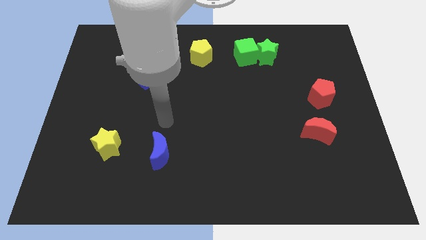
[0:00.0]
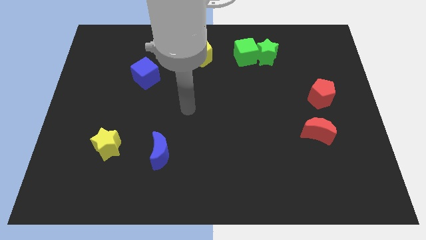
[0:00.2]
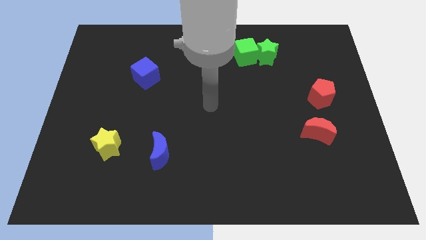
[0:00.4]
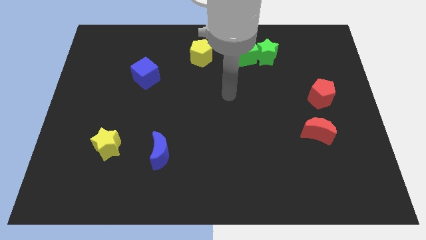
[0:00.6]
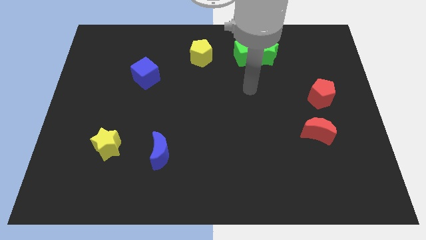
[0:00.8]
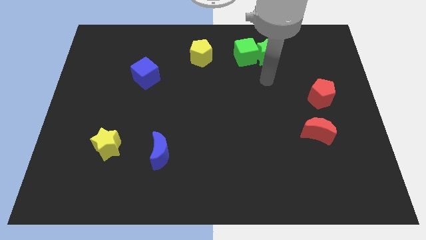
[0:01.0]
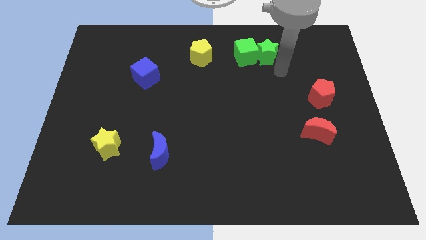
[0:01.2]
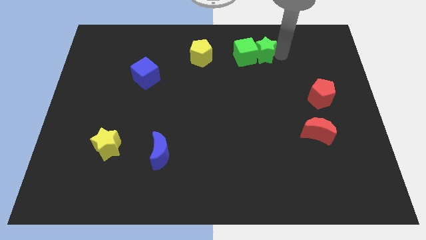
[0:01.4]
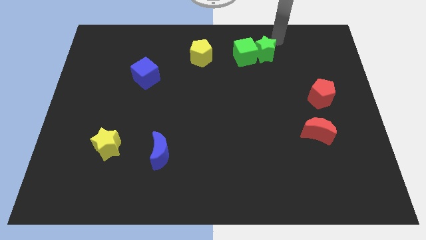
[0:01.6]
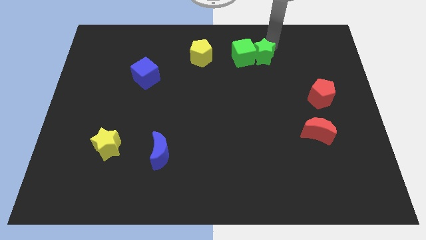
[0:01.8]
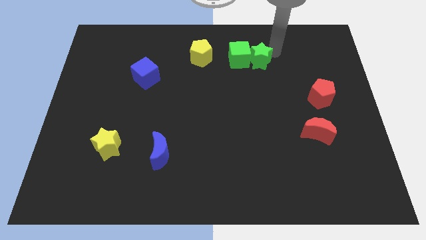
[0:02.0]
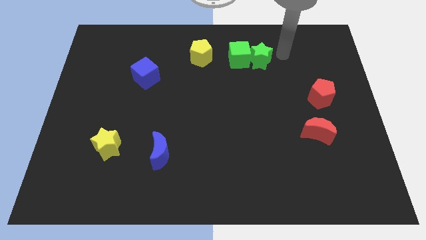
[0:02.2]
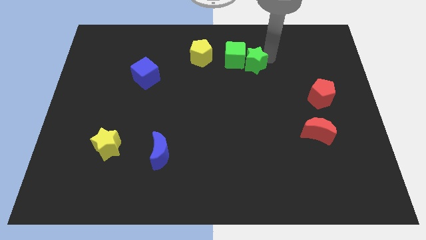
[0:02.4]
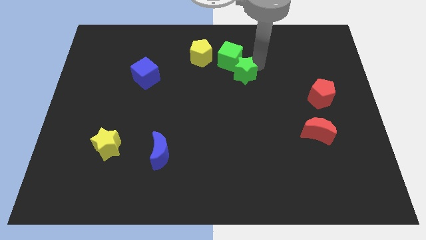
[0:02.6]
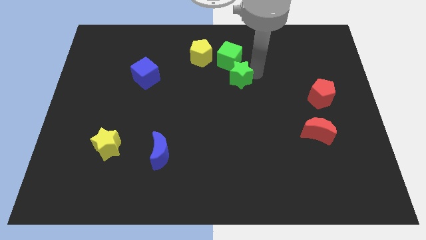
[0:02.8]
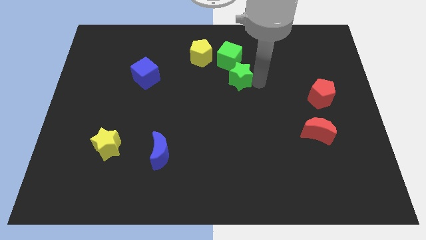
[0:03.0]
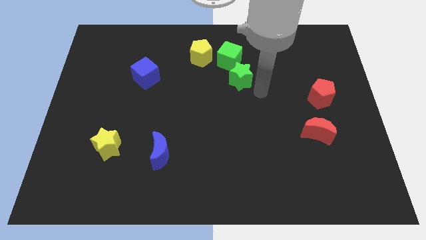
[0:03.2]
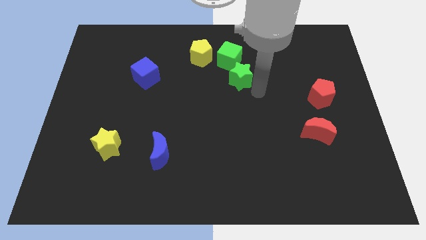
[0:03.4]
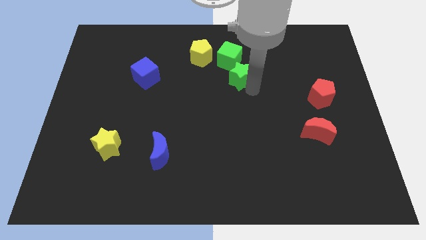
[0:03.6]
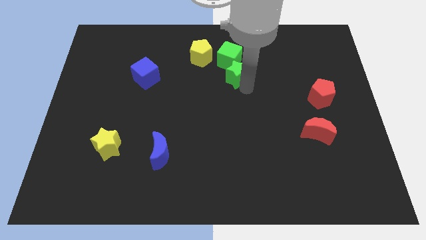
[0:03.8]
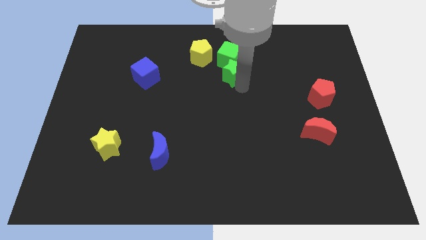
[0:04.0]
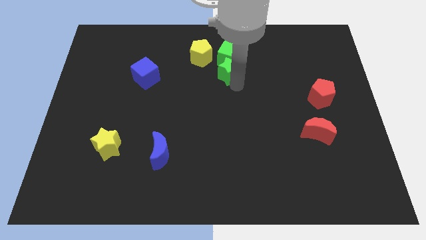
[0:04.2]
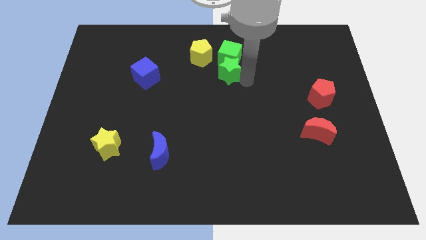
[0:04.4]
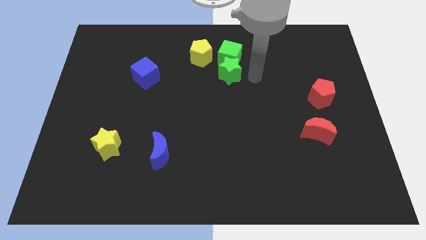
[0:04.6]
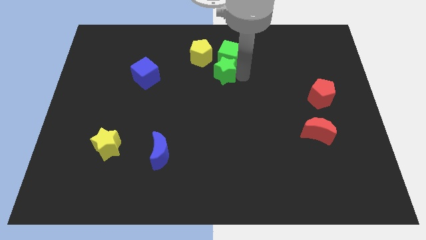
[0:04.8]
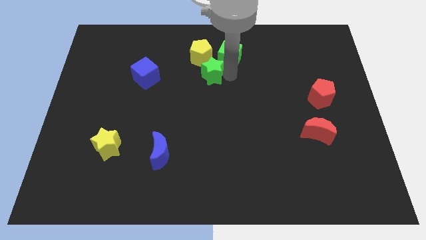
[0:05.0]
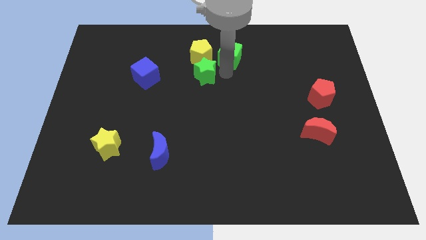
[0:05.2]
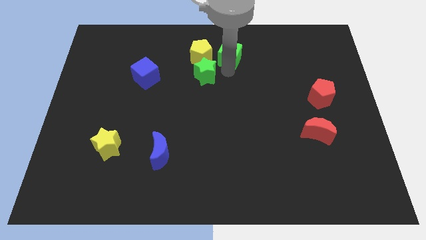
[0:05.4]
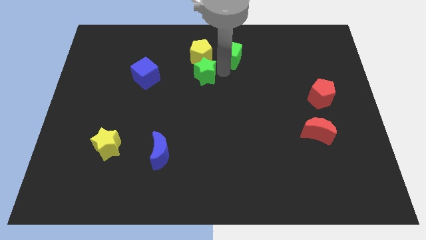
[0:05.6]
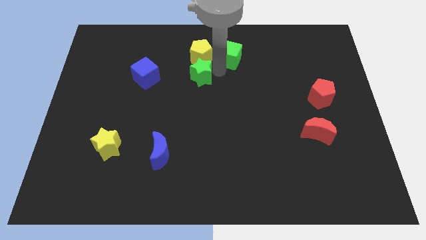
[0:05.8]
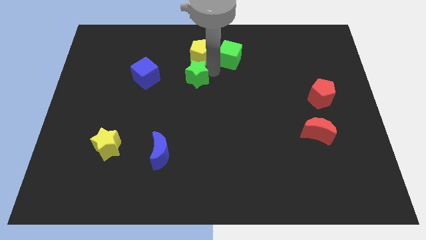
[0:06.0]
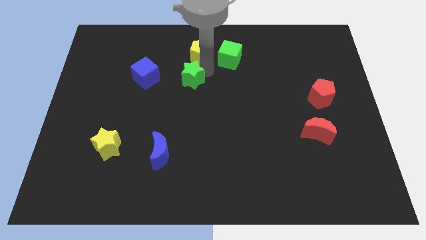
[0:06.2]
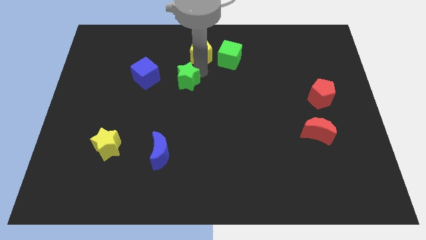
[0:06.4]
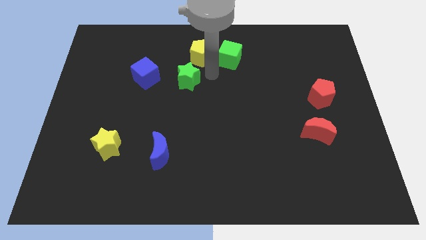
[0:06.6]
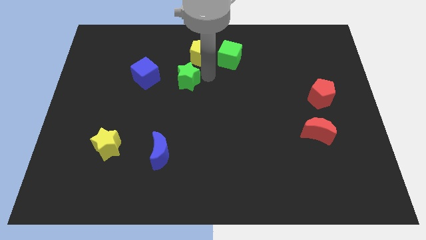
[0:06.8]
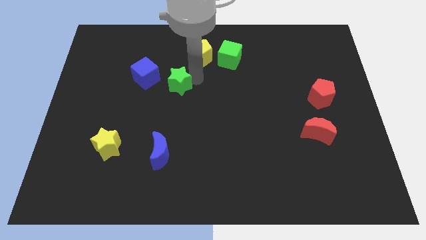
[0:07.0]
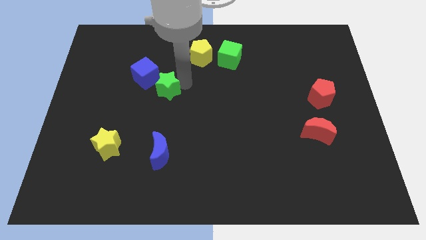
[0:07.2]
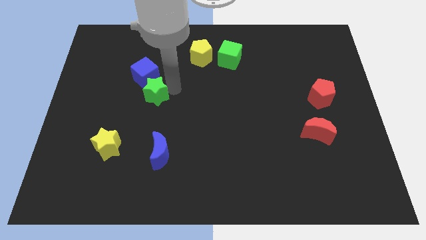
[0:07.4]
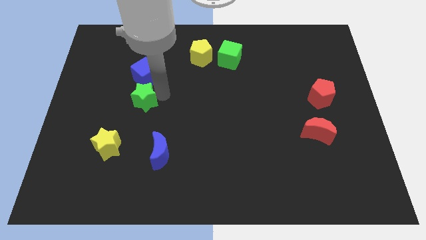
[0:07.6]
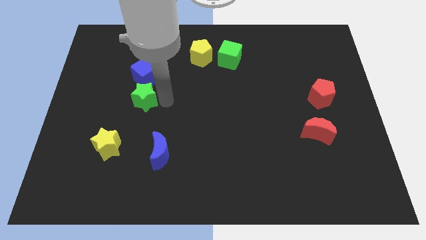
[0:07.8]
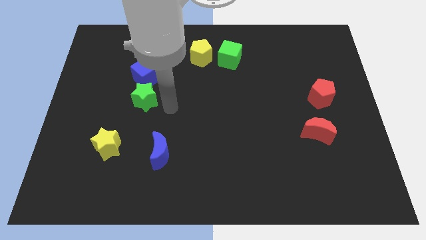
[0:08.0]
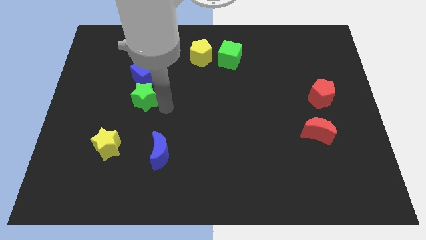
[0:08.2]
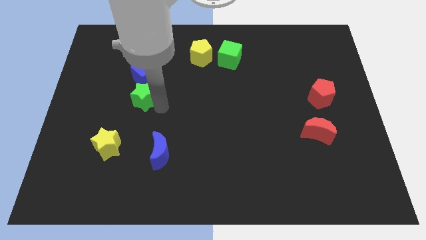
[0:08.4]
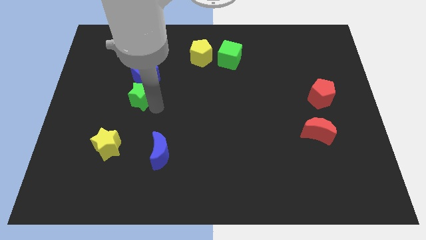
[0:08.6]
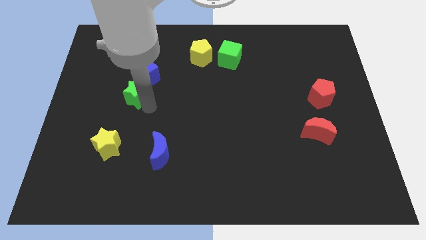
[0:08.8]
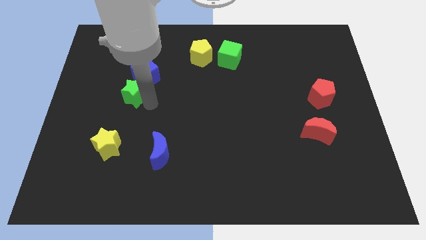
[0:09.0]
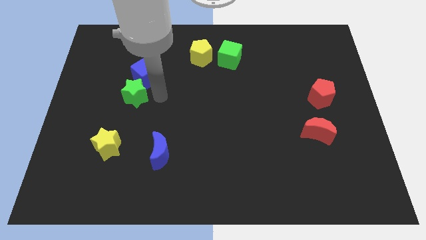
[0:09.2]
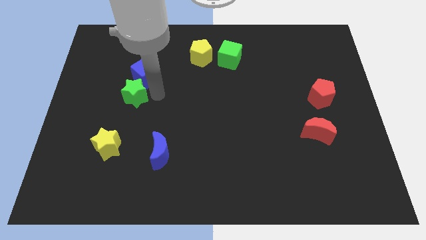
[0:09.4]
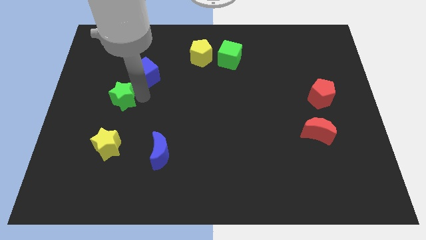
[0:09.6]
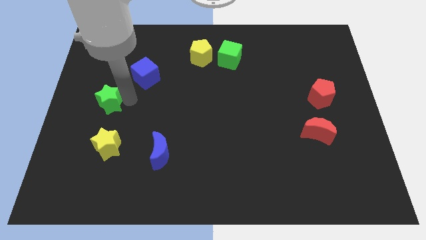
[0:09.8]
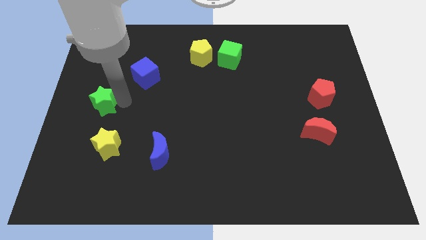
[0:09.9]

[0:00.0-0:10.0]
slide the green star to the center left

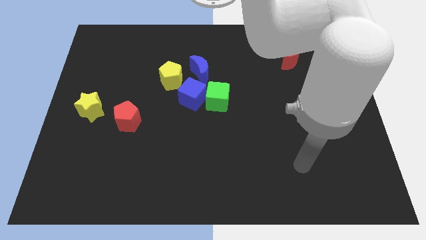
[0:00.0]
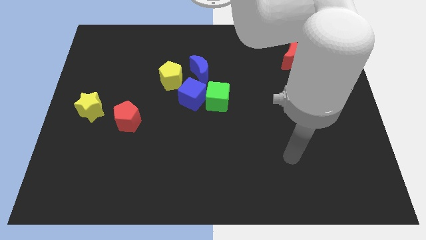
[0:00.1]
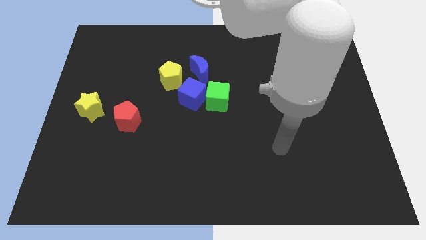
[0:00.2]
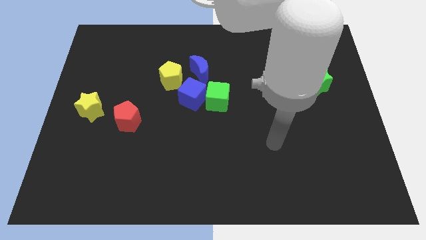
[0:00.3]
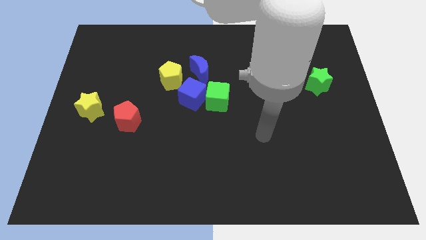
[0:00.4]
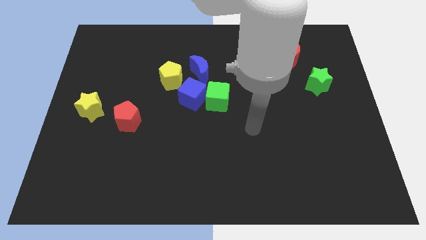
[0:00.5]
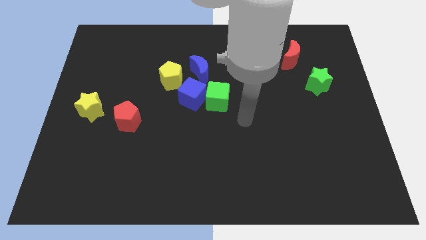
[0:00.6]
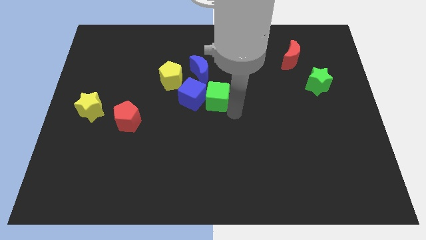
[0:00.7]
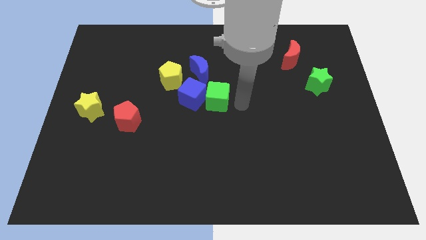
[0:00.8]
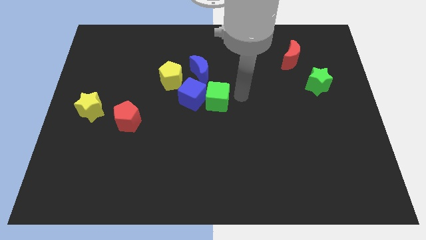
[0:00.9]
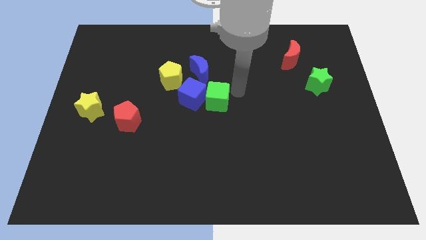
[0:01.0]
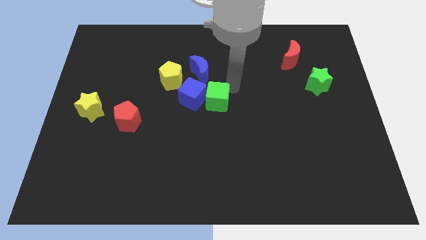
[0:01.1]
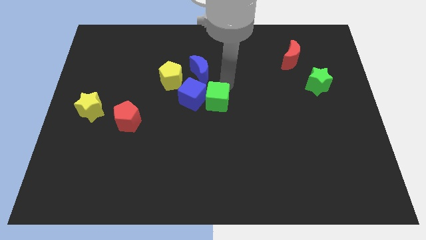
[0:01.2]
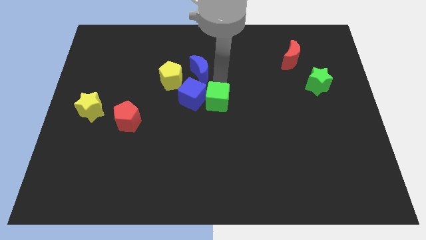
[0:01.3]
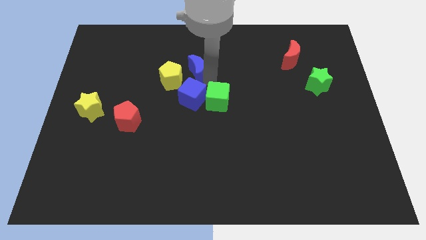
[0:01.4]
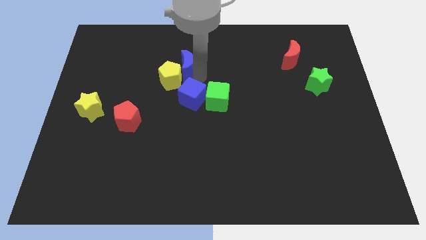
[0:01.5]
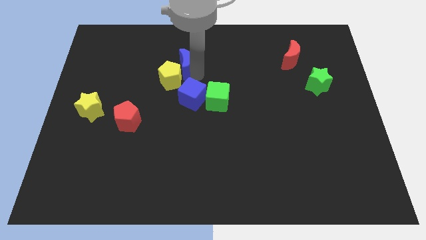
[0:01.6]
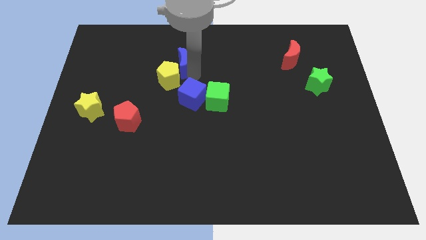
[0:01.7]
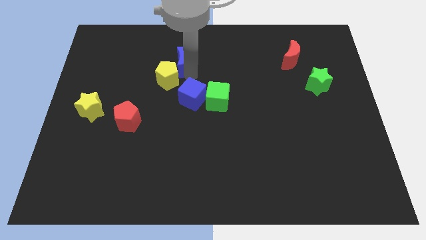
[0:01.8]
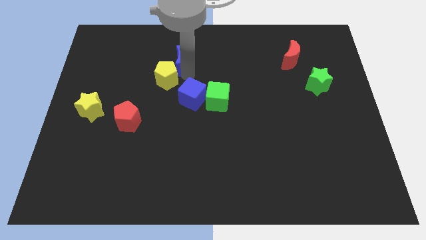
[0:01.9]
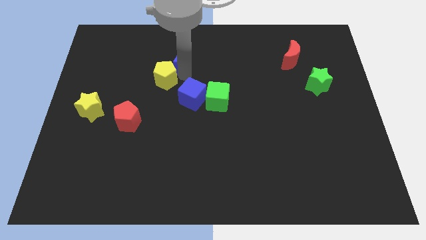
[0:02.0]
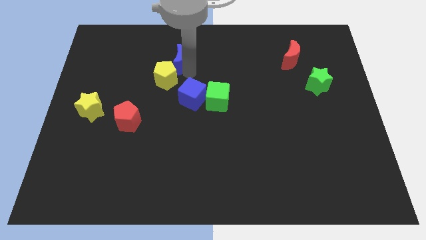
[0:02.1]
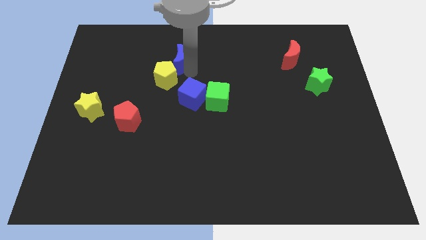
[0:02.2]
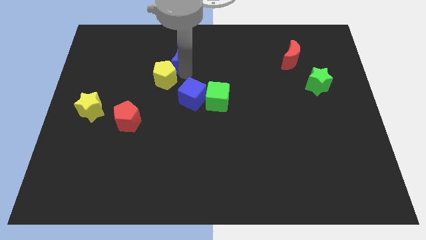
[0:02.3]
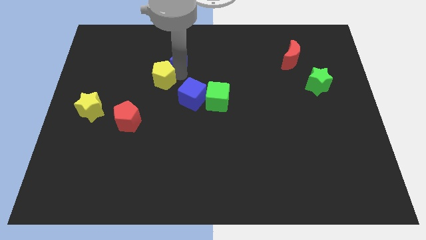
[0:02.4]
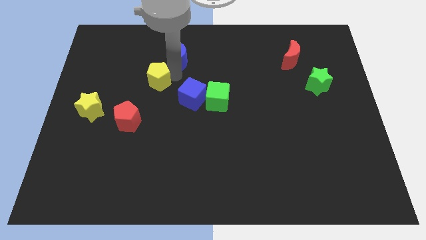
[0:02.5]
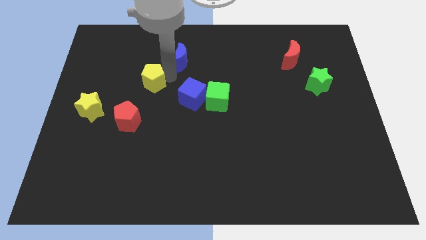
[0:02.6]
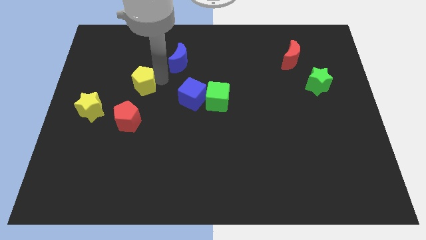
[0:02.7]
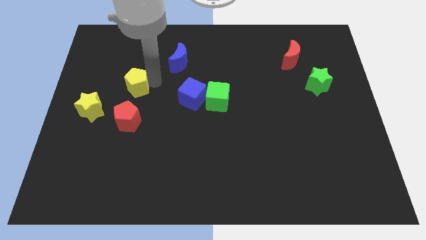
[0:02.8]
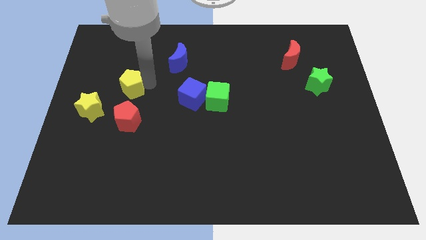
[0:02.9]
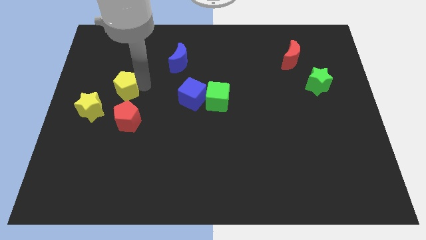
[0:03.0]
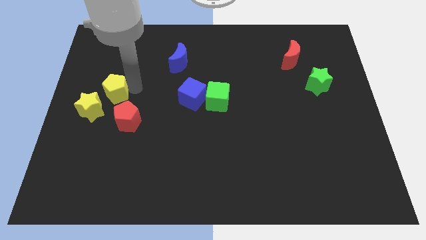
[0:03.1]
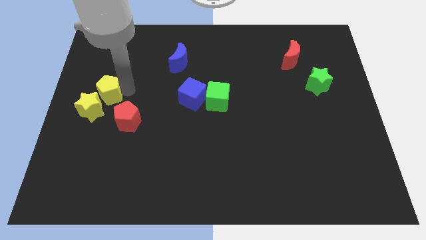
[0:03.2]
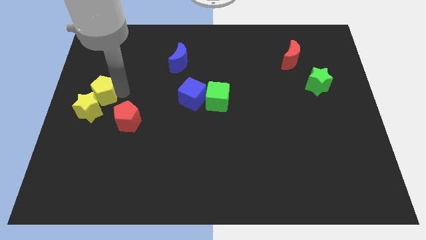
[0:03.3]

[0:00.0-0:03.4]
move the yellow pentagon to the center left
